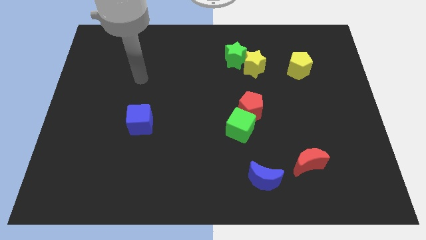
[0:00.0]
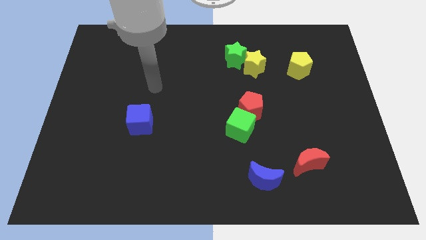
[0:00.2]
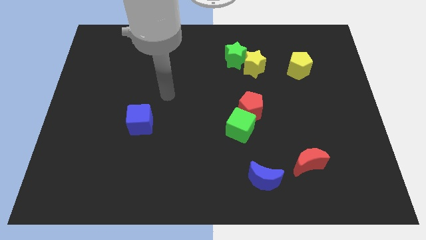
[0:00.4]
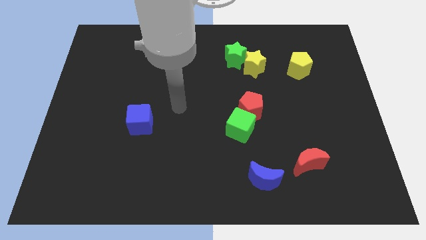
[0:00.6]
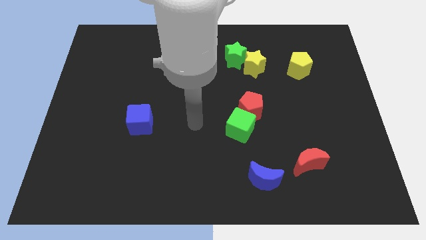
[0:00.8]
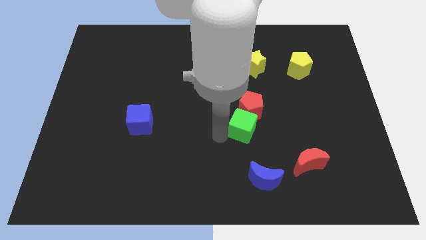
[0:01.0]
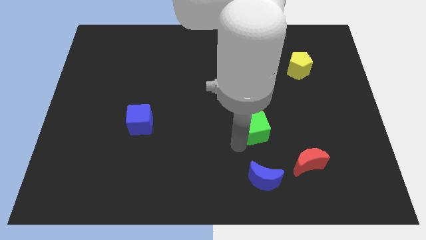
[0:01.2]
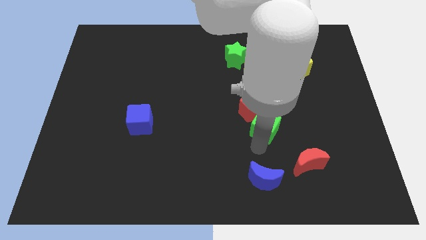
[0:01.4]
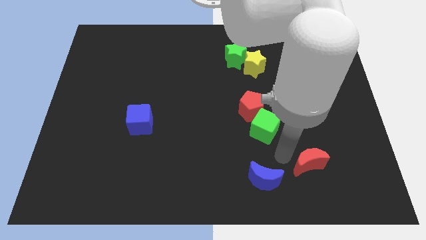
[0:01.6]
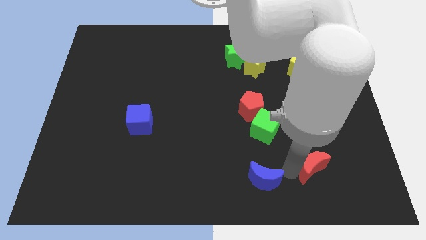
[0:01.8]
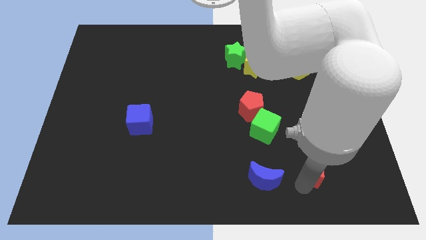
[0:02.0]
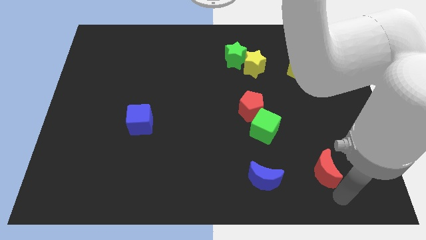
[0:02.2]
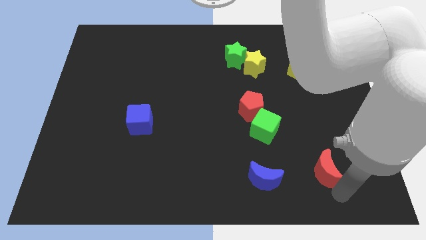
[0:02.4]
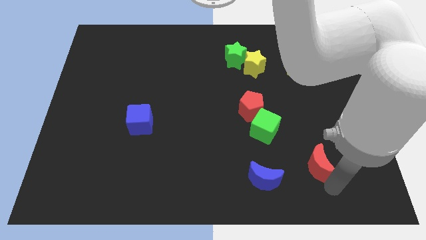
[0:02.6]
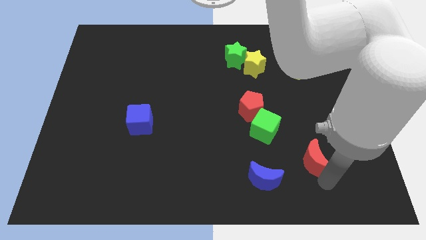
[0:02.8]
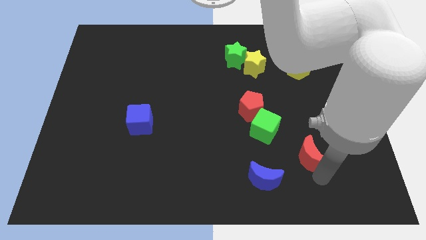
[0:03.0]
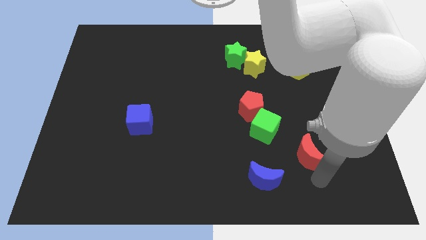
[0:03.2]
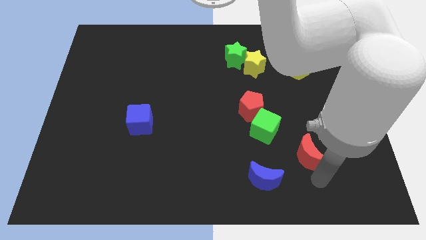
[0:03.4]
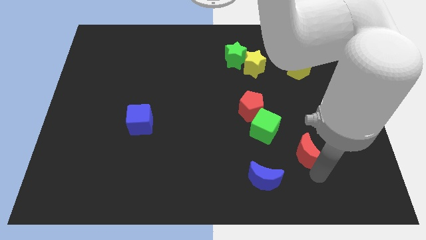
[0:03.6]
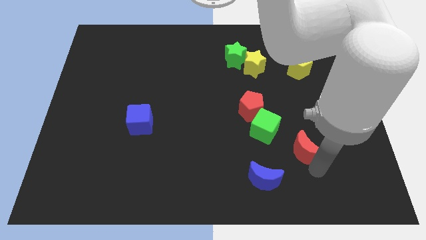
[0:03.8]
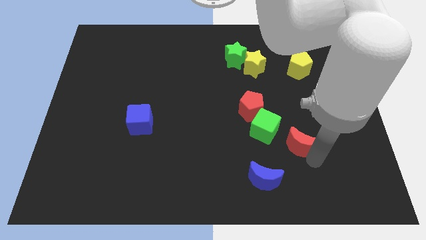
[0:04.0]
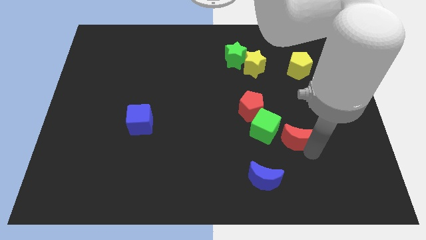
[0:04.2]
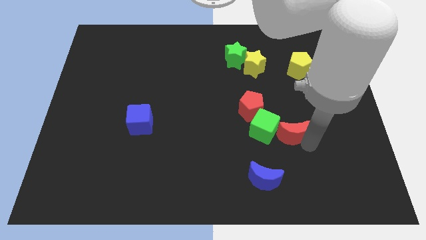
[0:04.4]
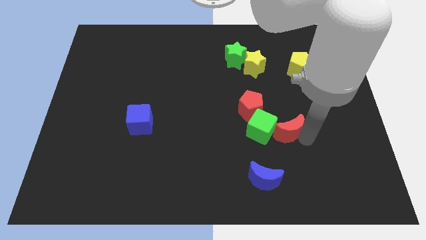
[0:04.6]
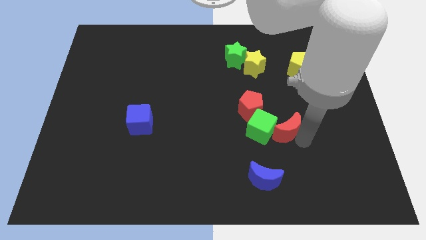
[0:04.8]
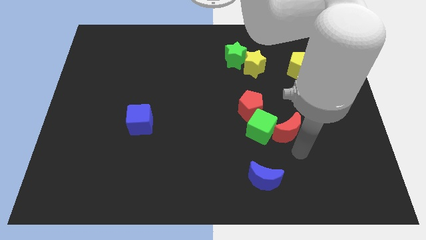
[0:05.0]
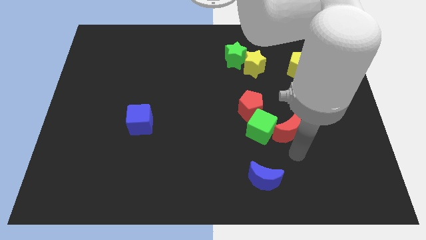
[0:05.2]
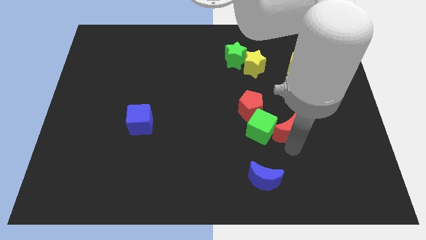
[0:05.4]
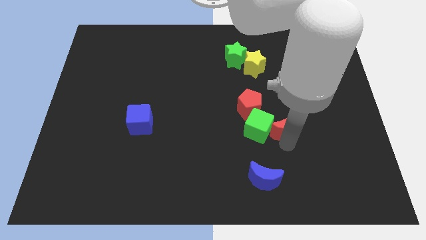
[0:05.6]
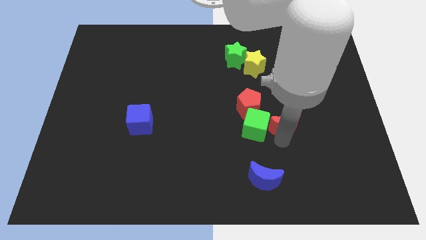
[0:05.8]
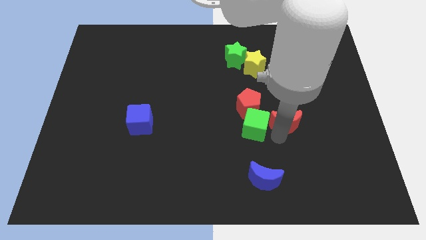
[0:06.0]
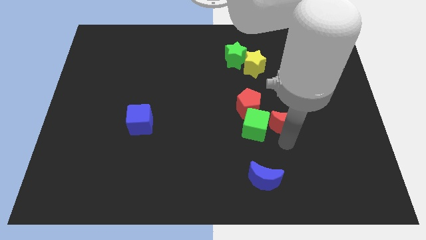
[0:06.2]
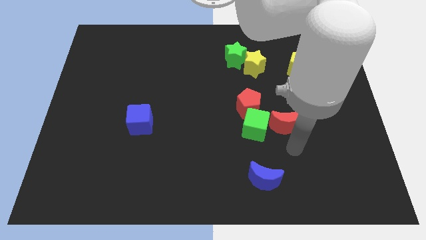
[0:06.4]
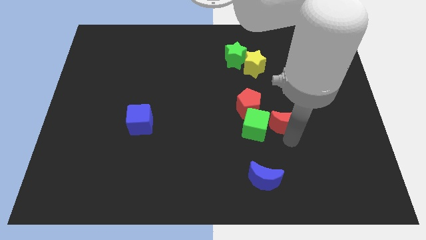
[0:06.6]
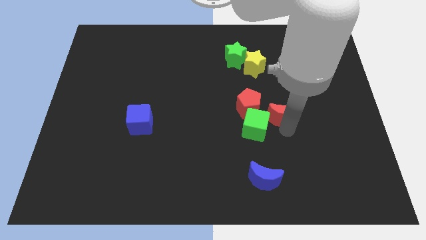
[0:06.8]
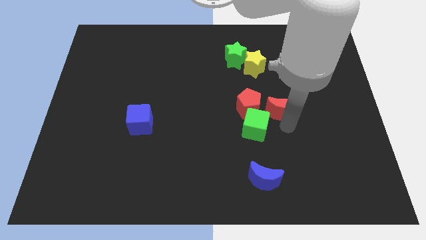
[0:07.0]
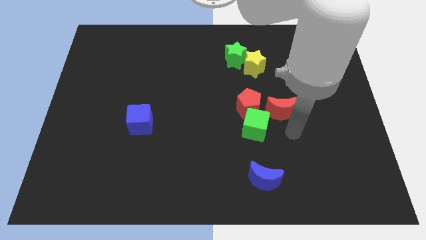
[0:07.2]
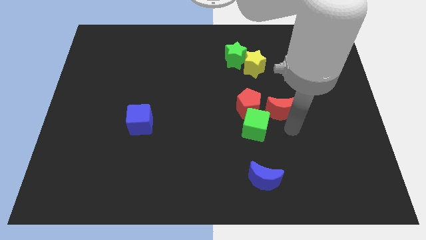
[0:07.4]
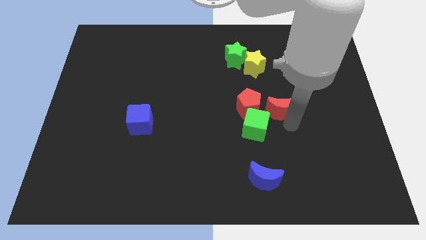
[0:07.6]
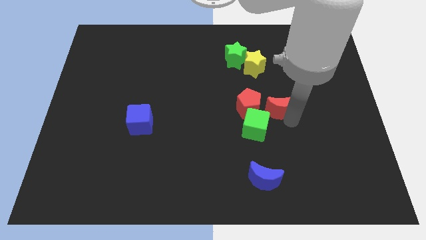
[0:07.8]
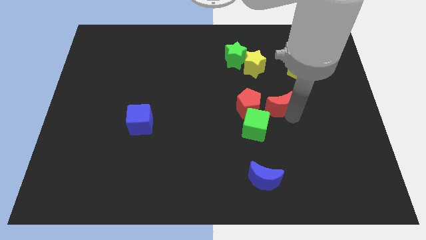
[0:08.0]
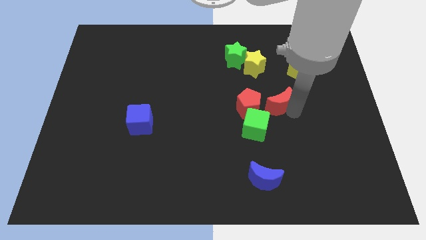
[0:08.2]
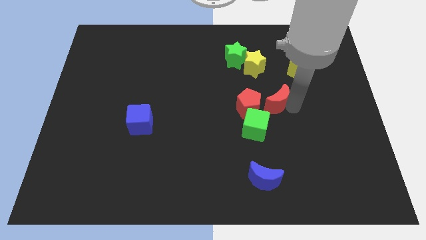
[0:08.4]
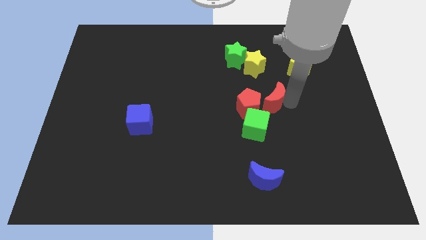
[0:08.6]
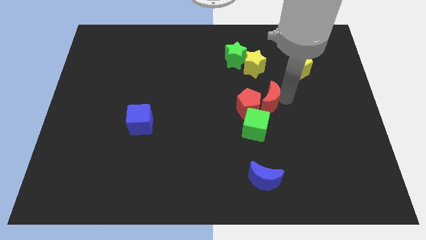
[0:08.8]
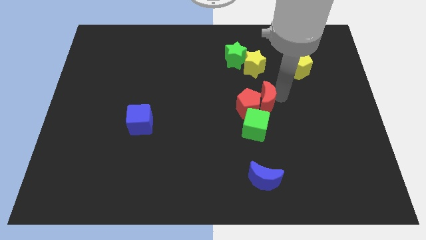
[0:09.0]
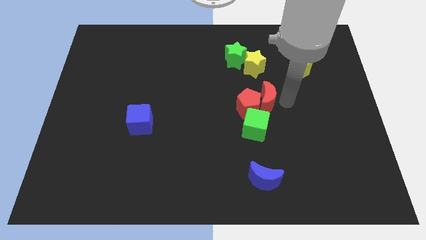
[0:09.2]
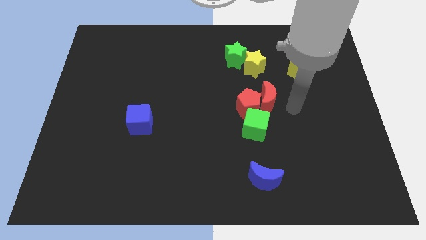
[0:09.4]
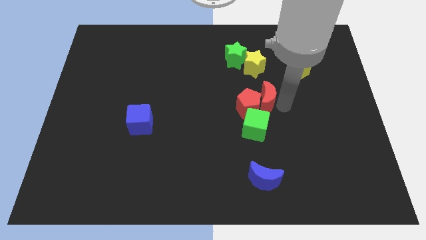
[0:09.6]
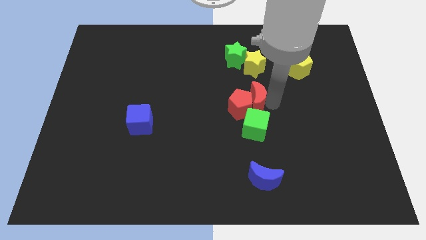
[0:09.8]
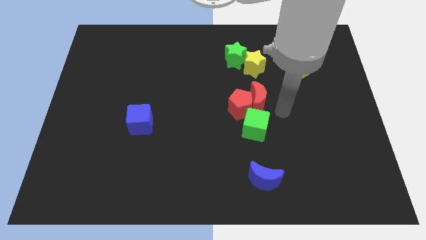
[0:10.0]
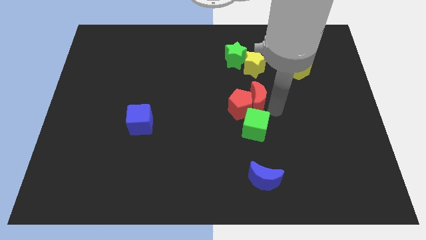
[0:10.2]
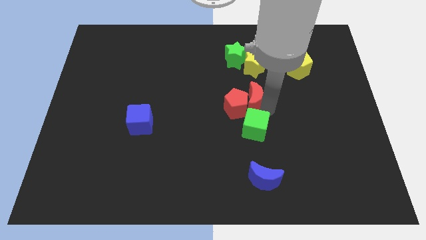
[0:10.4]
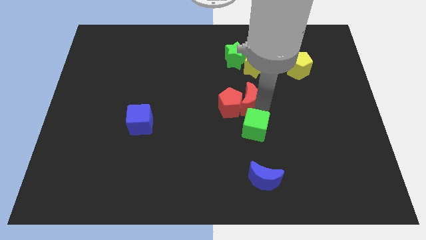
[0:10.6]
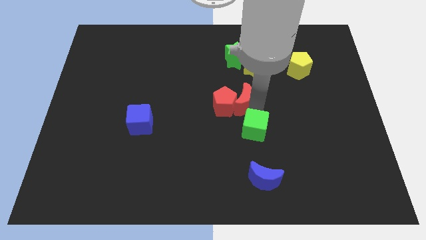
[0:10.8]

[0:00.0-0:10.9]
slide the red moon upwards and then to the left

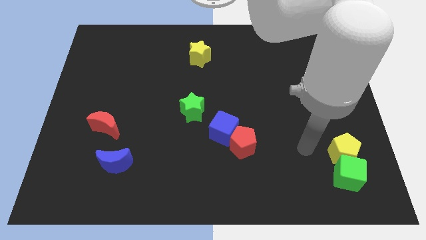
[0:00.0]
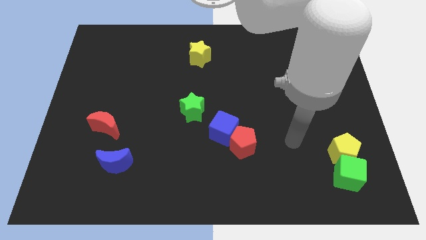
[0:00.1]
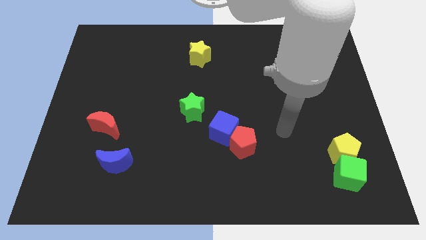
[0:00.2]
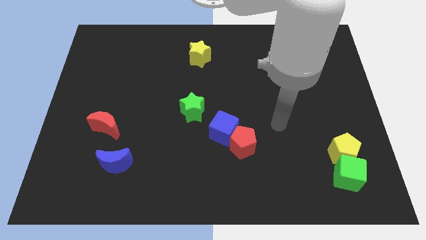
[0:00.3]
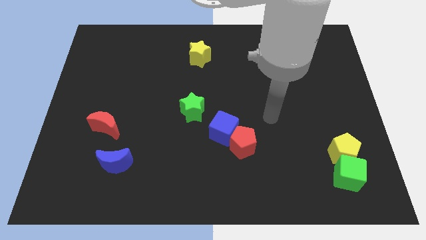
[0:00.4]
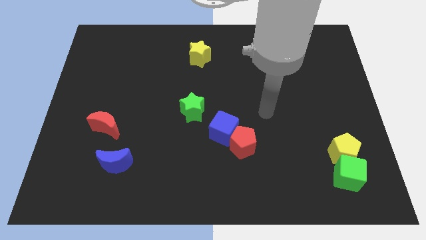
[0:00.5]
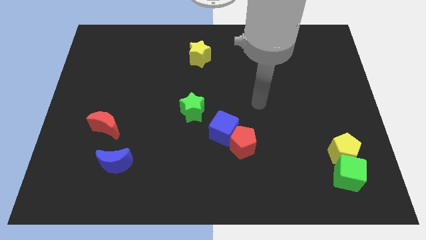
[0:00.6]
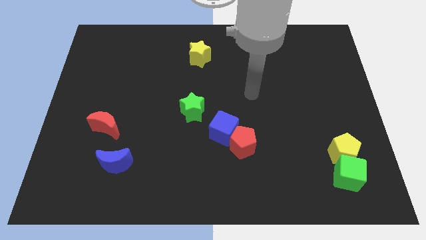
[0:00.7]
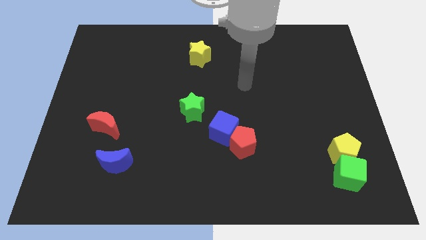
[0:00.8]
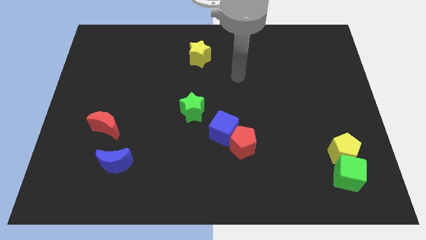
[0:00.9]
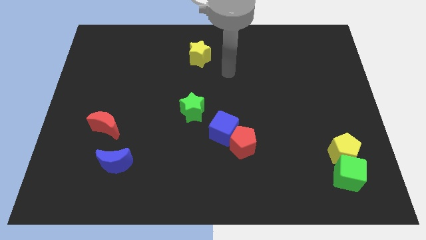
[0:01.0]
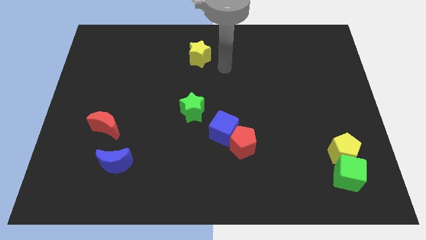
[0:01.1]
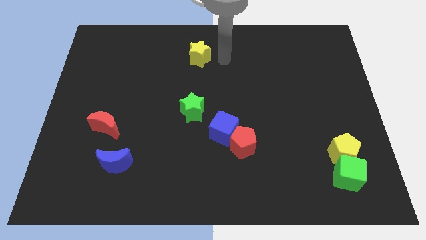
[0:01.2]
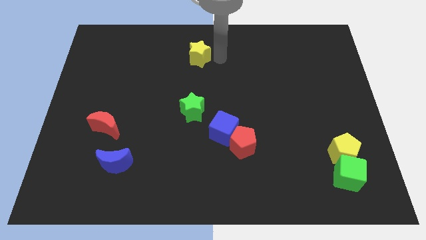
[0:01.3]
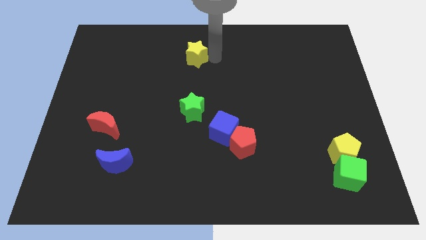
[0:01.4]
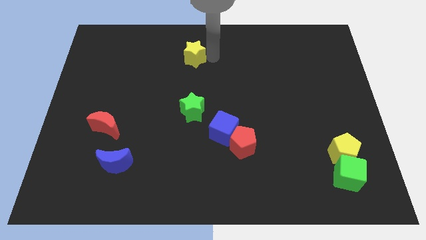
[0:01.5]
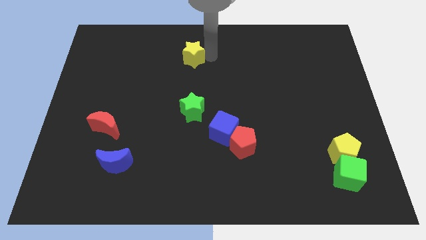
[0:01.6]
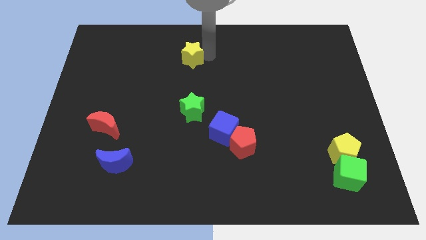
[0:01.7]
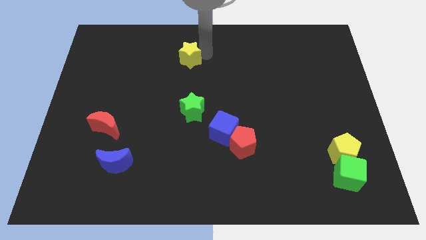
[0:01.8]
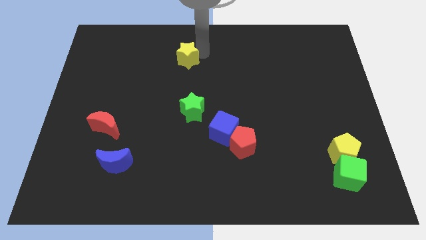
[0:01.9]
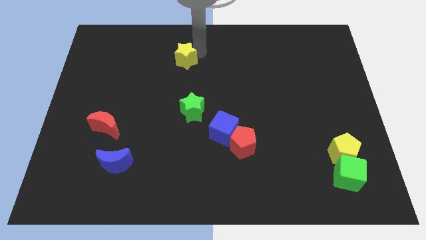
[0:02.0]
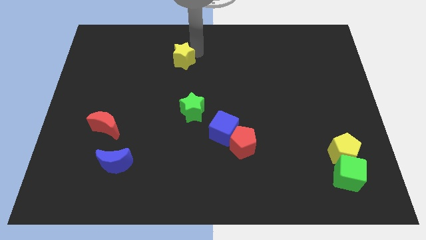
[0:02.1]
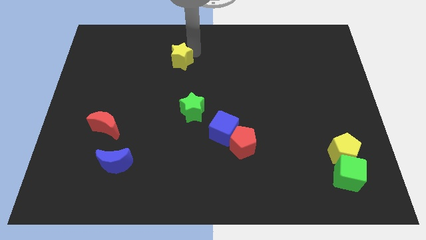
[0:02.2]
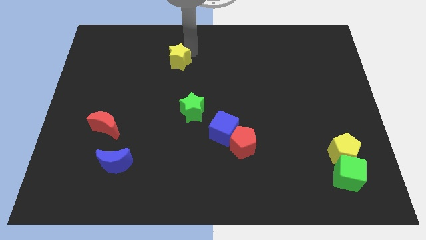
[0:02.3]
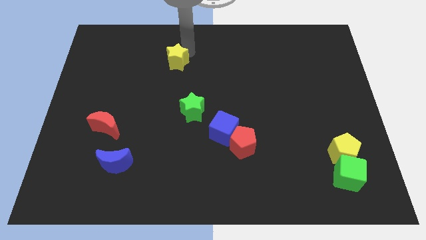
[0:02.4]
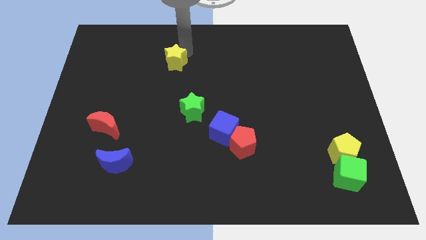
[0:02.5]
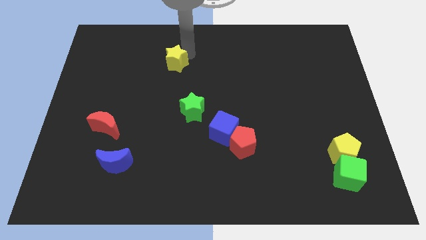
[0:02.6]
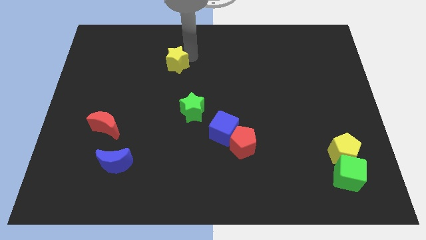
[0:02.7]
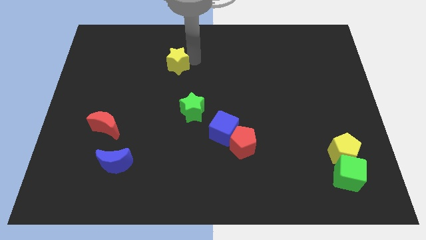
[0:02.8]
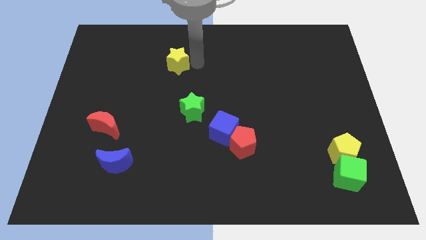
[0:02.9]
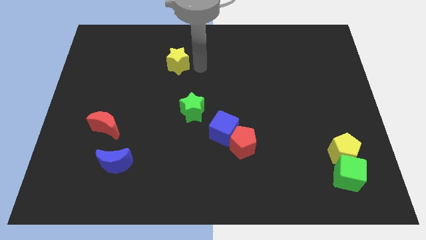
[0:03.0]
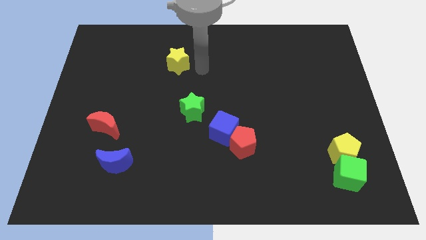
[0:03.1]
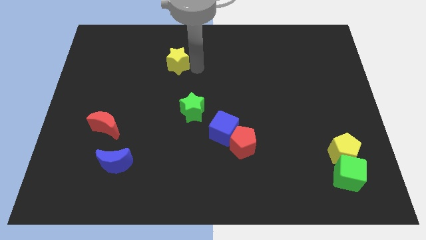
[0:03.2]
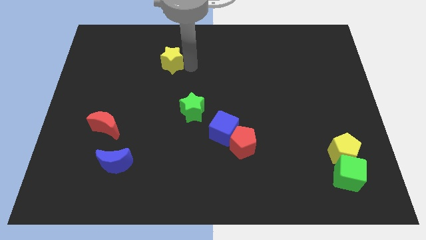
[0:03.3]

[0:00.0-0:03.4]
push the yellow star left a little
